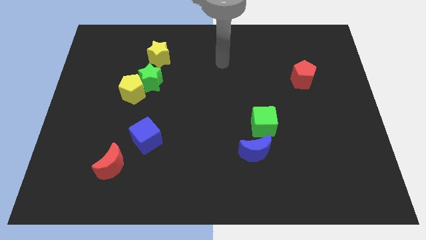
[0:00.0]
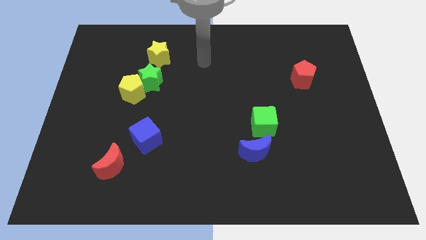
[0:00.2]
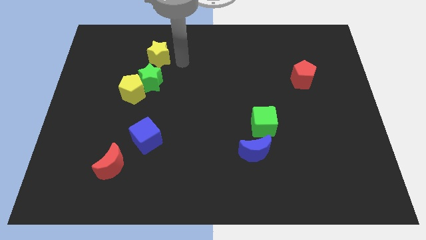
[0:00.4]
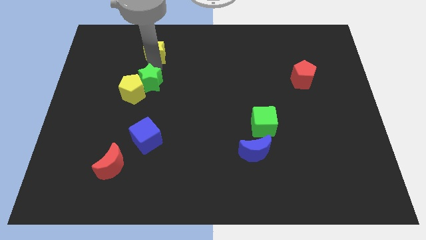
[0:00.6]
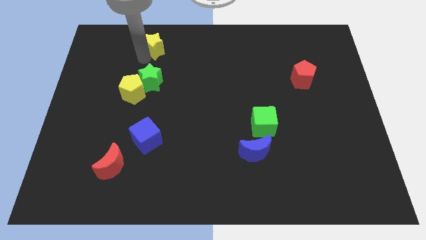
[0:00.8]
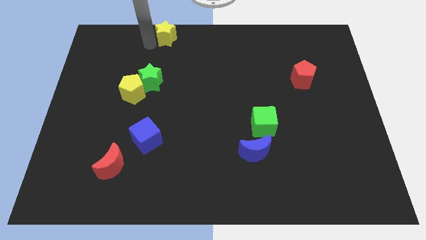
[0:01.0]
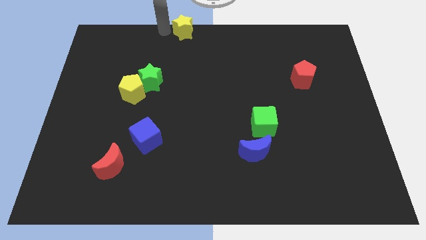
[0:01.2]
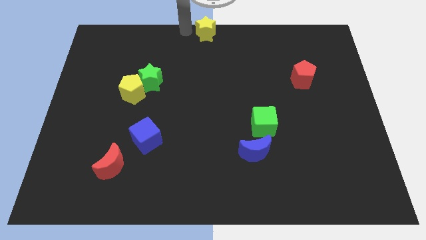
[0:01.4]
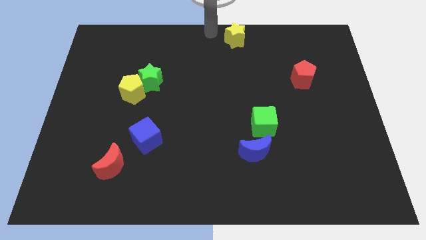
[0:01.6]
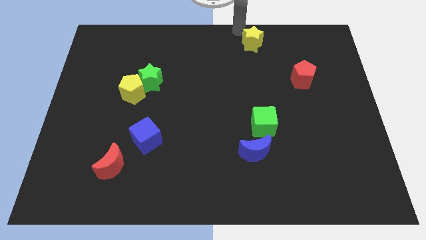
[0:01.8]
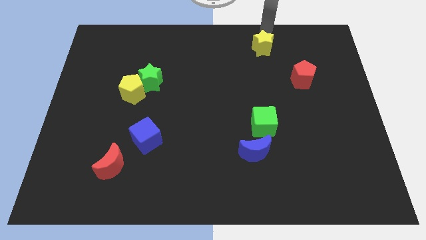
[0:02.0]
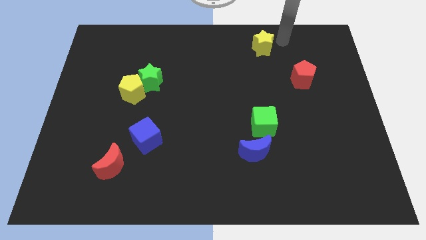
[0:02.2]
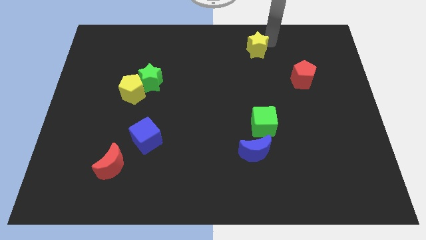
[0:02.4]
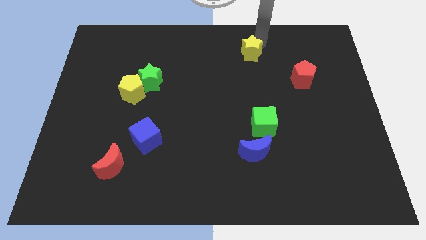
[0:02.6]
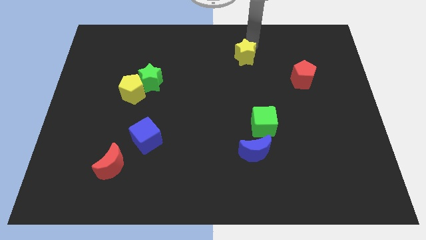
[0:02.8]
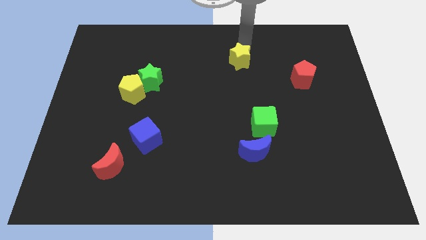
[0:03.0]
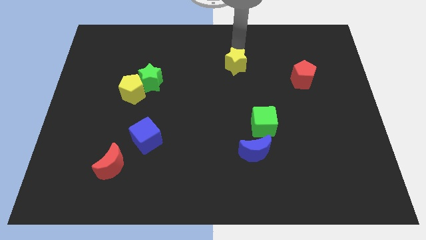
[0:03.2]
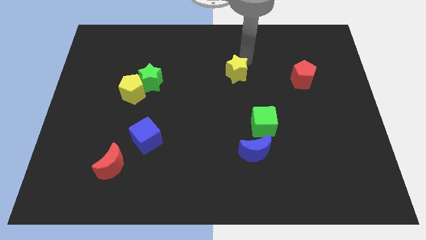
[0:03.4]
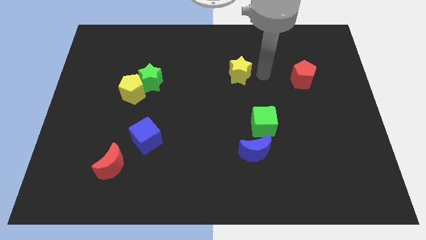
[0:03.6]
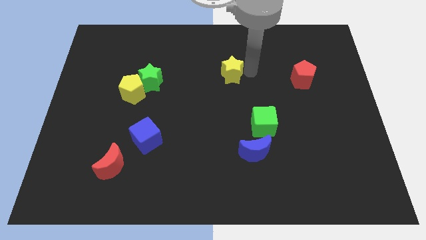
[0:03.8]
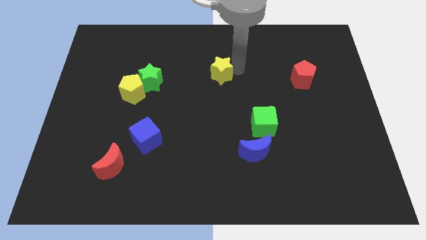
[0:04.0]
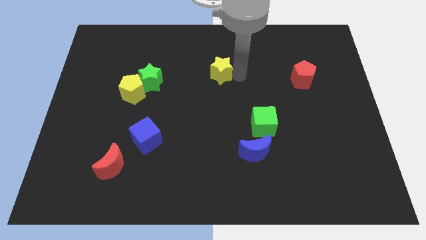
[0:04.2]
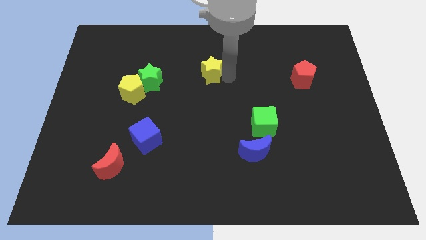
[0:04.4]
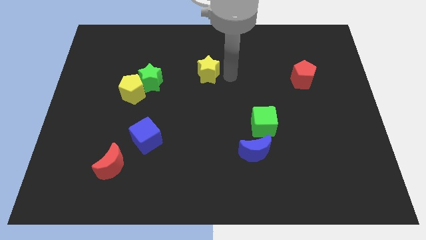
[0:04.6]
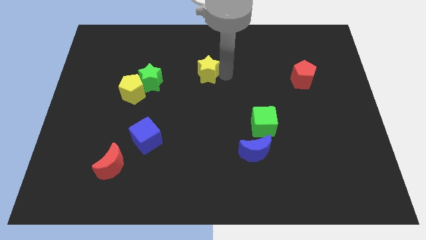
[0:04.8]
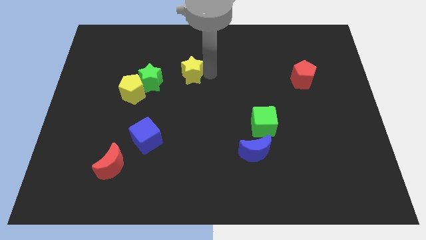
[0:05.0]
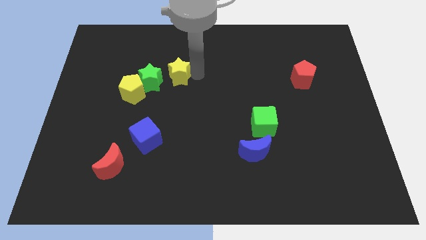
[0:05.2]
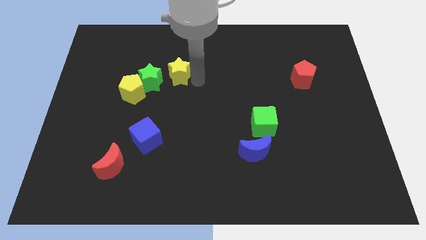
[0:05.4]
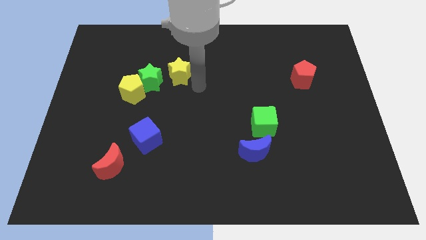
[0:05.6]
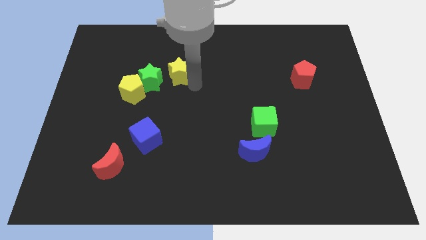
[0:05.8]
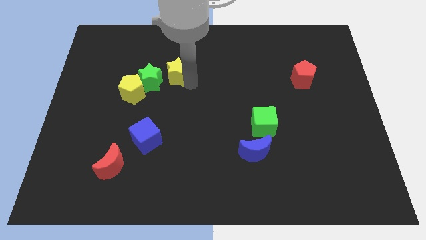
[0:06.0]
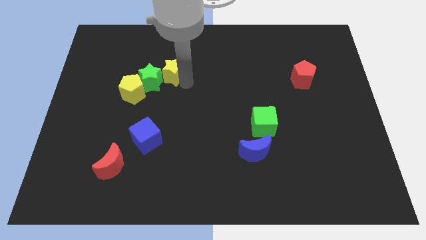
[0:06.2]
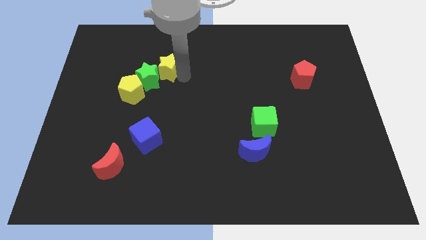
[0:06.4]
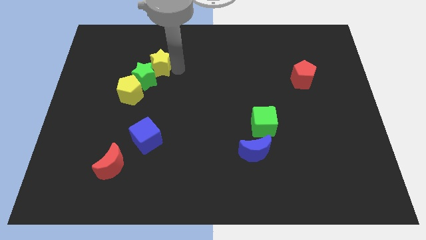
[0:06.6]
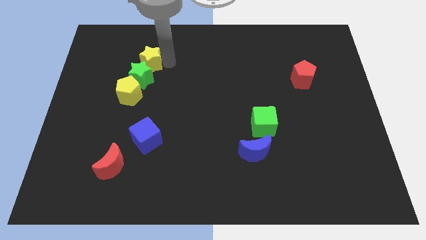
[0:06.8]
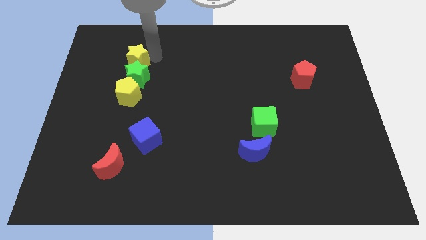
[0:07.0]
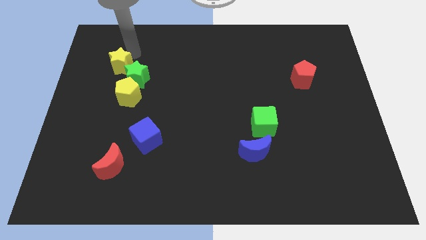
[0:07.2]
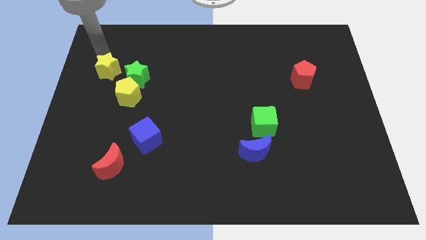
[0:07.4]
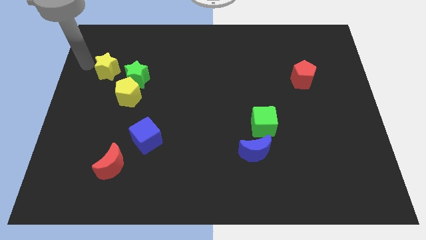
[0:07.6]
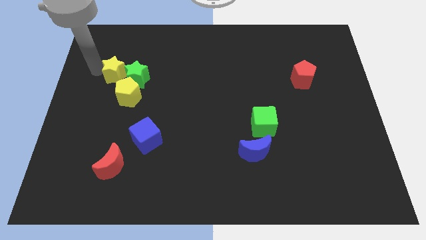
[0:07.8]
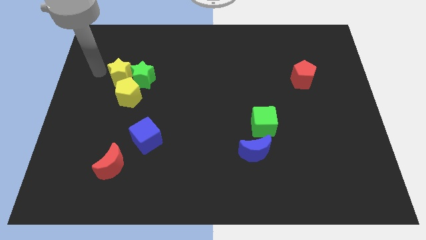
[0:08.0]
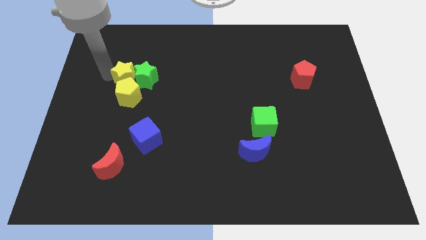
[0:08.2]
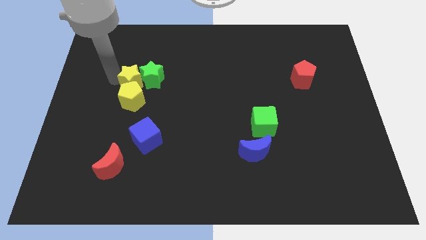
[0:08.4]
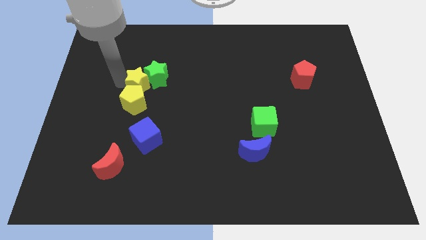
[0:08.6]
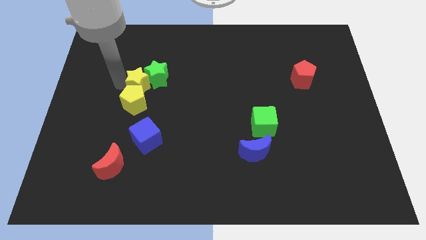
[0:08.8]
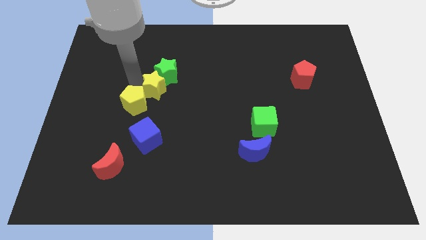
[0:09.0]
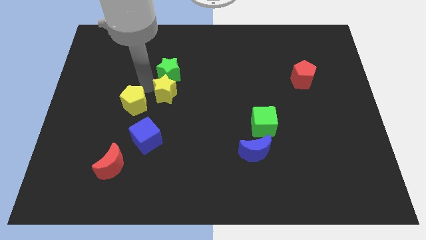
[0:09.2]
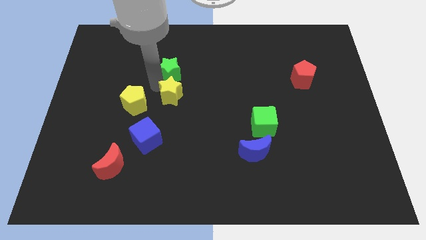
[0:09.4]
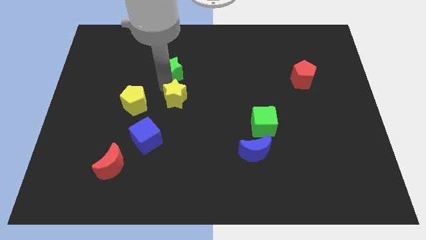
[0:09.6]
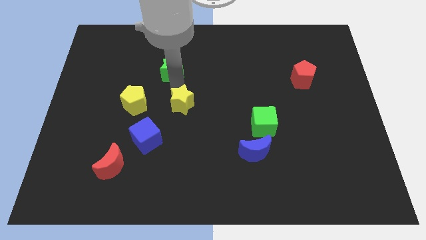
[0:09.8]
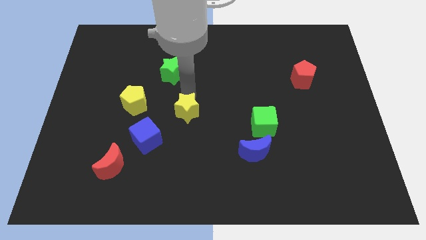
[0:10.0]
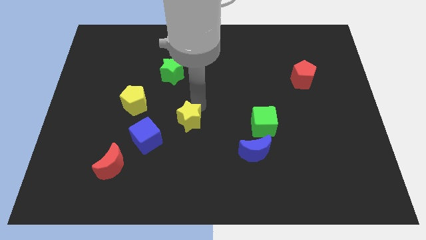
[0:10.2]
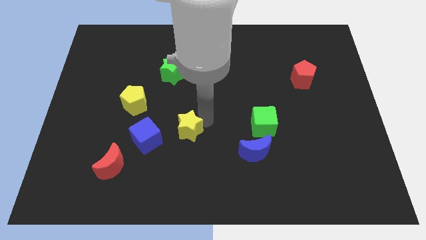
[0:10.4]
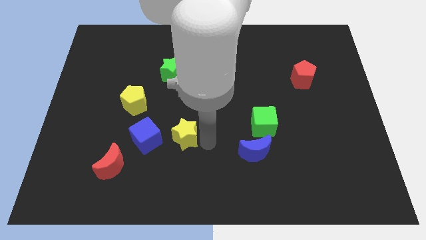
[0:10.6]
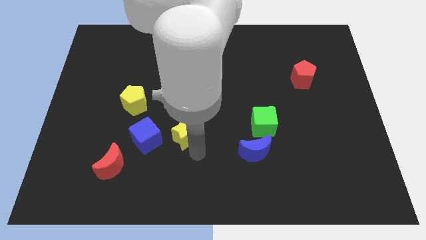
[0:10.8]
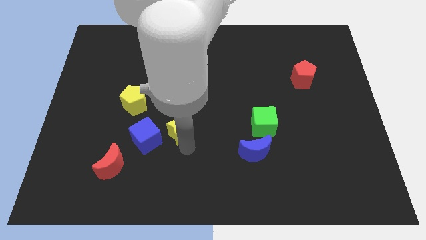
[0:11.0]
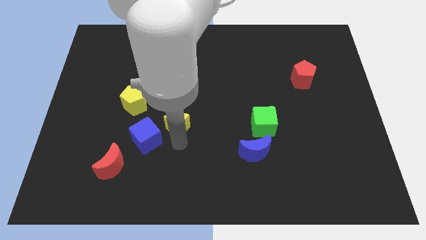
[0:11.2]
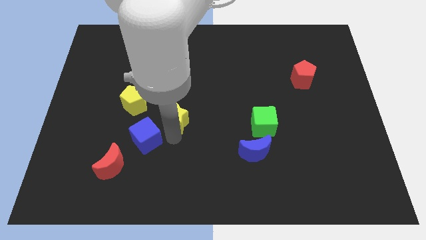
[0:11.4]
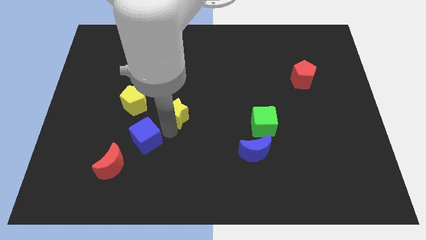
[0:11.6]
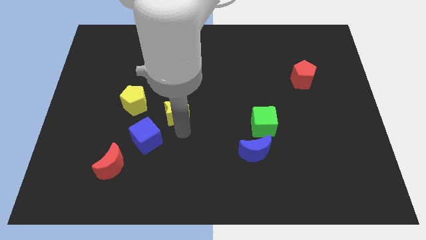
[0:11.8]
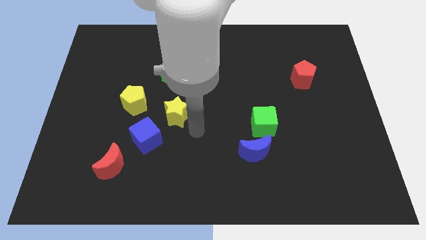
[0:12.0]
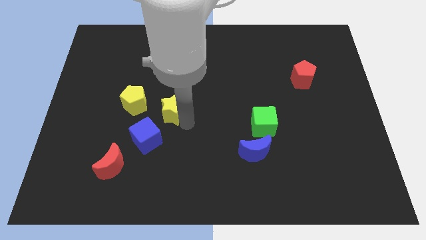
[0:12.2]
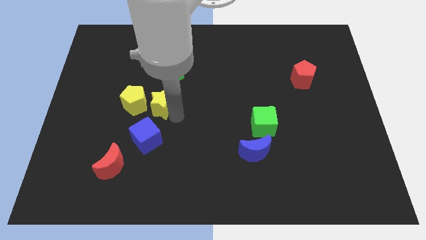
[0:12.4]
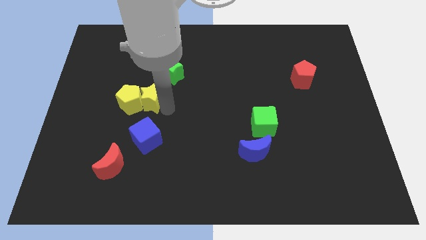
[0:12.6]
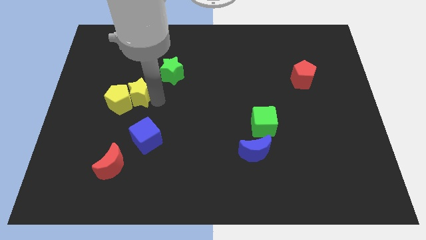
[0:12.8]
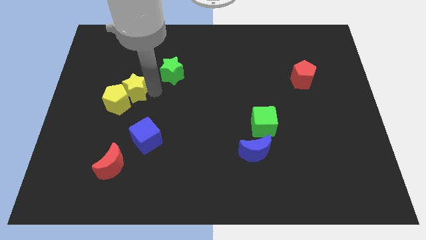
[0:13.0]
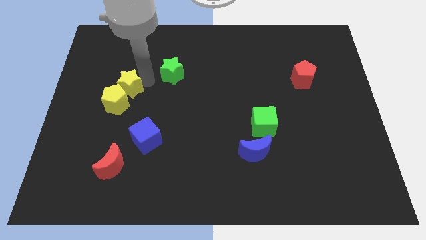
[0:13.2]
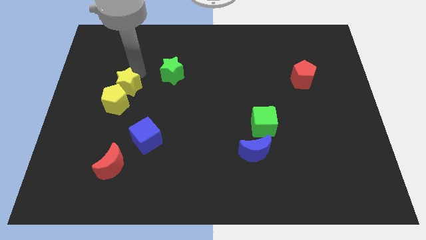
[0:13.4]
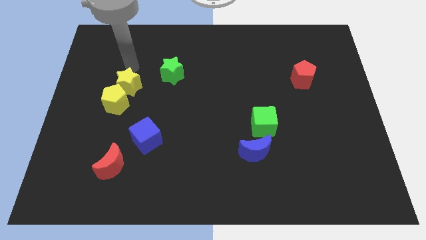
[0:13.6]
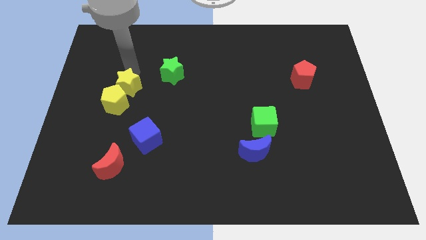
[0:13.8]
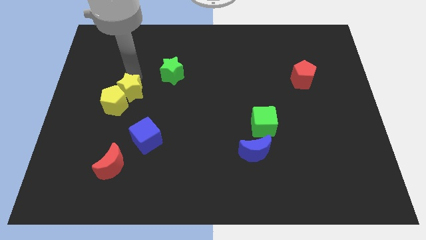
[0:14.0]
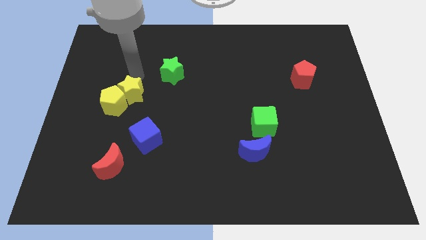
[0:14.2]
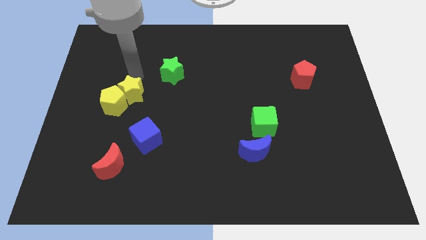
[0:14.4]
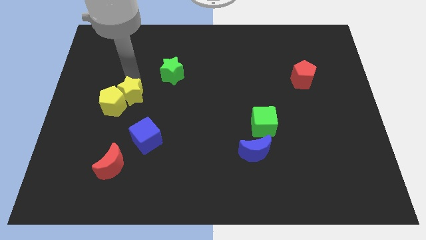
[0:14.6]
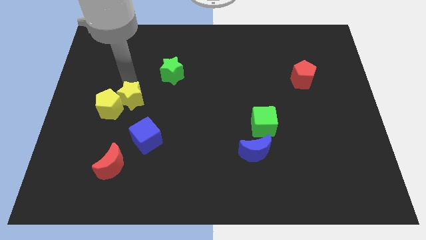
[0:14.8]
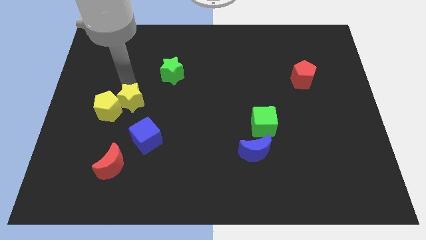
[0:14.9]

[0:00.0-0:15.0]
push the yellow star to the top left of the blue cube
